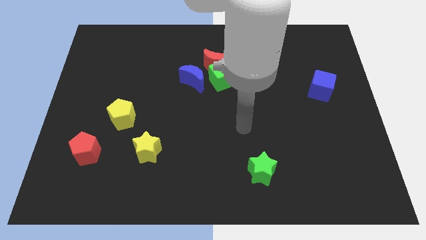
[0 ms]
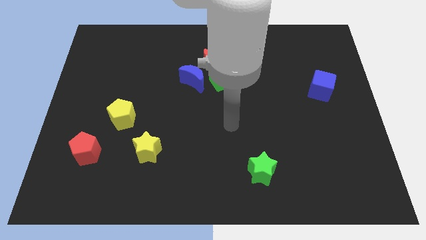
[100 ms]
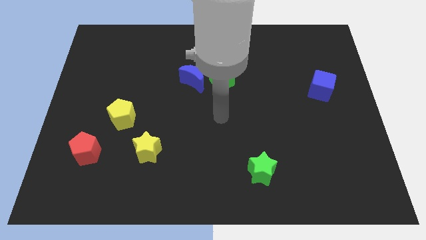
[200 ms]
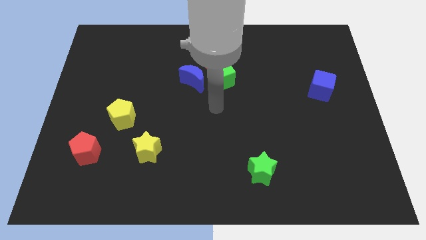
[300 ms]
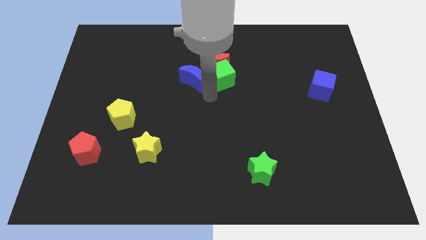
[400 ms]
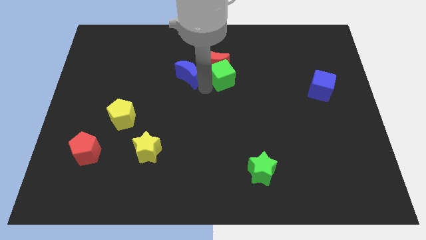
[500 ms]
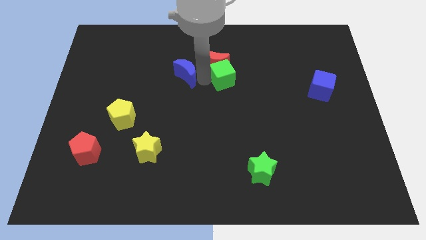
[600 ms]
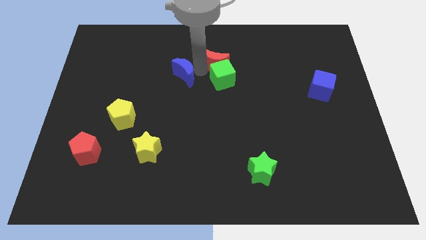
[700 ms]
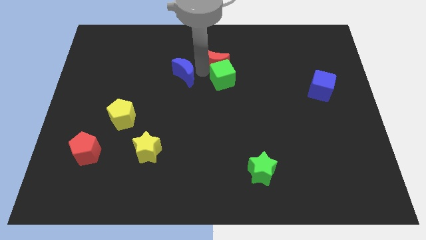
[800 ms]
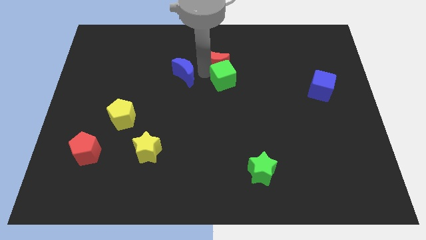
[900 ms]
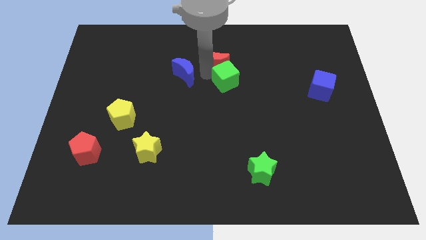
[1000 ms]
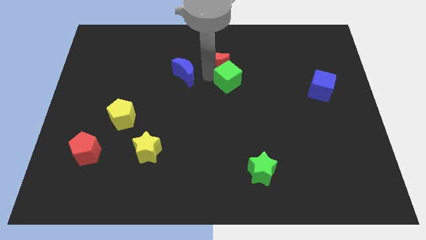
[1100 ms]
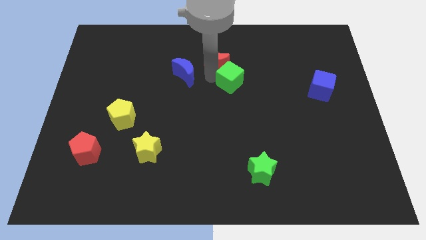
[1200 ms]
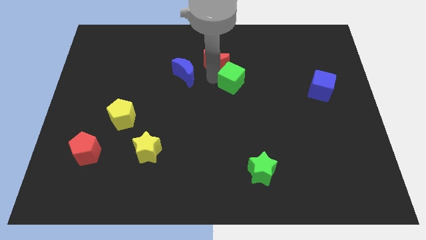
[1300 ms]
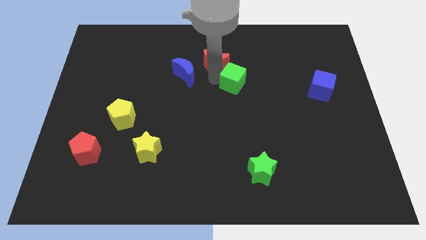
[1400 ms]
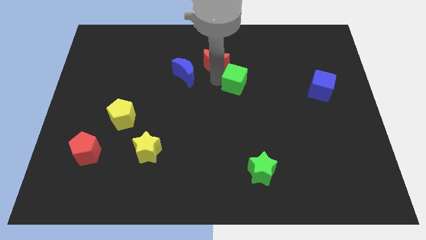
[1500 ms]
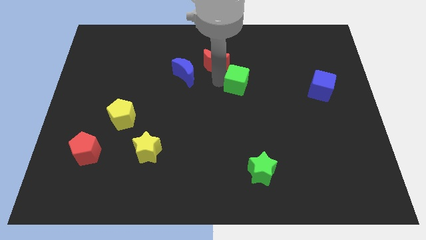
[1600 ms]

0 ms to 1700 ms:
pull the green cube apart from the red moon and blue moon

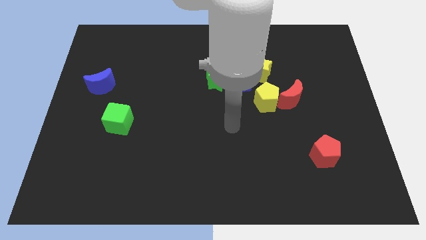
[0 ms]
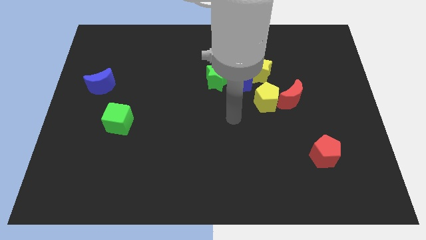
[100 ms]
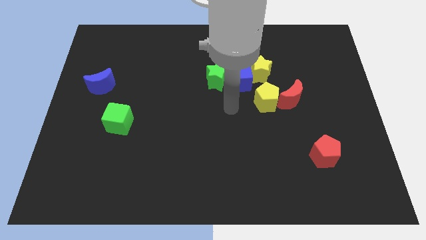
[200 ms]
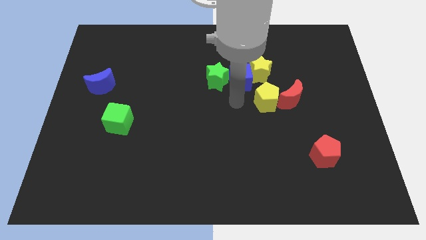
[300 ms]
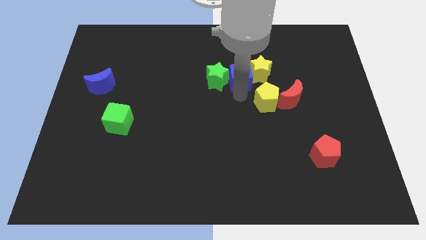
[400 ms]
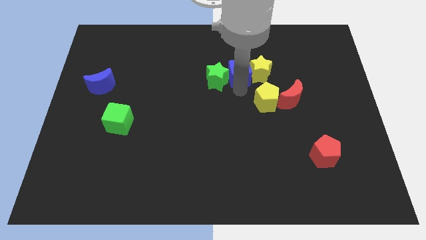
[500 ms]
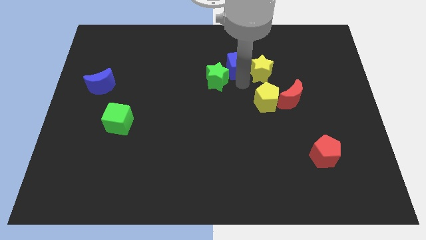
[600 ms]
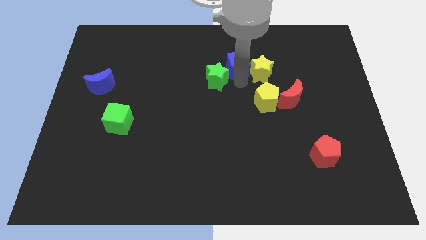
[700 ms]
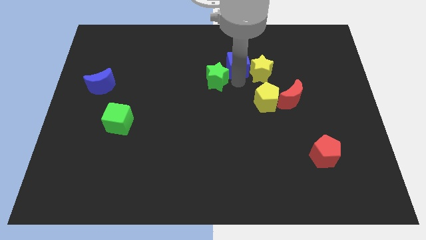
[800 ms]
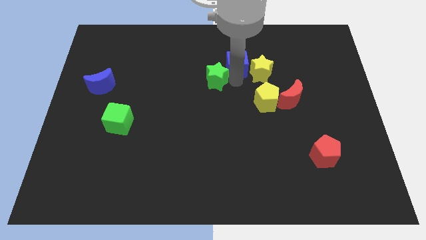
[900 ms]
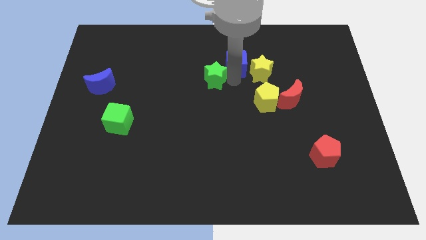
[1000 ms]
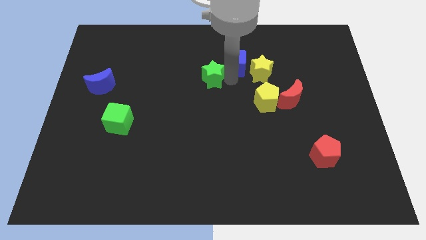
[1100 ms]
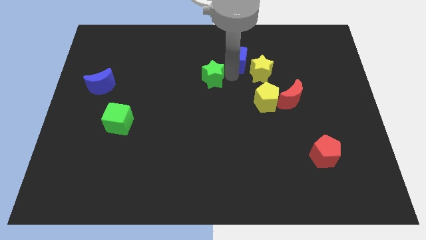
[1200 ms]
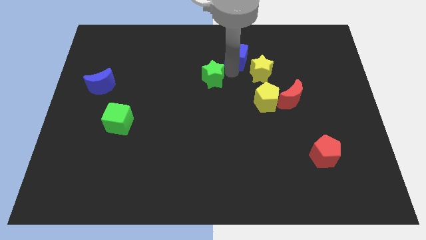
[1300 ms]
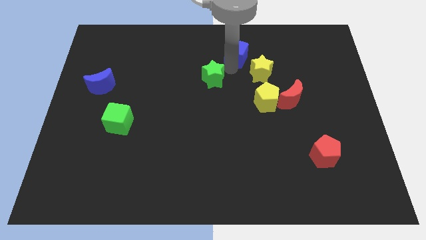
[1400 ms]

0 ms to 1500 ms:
separate the green star from the blue cube

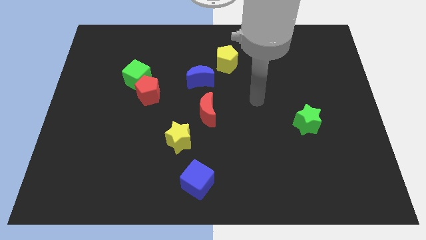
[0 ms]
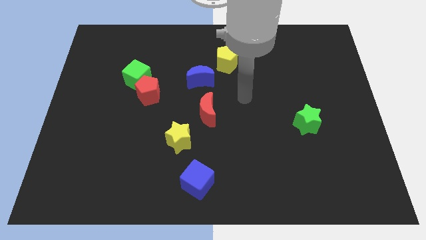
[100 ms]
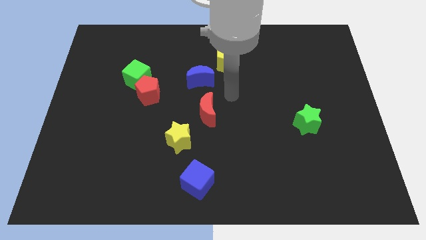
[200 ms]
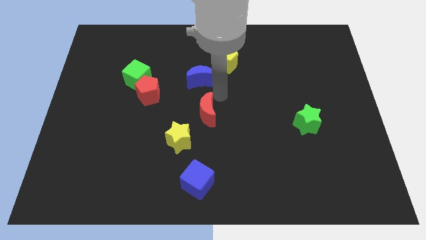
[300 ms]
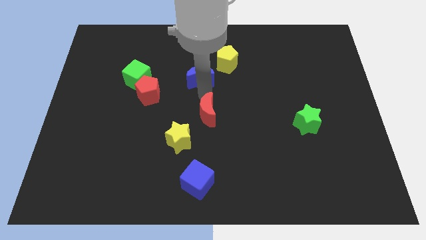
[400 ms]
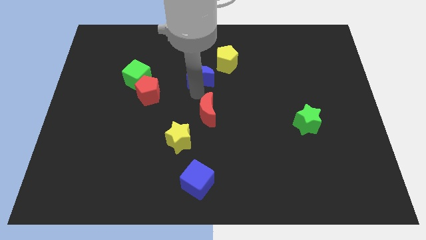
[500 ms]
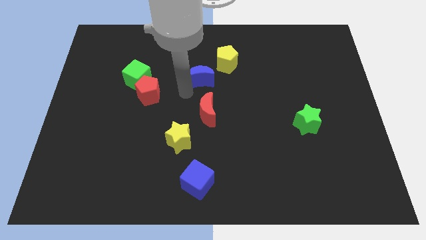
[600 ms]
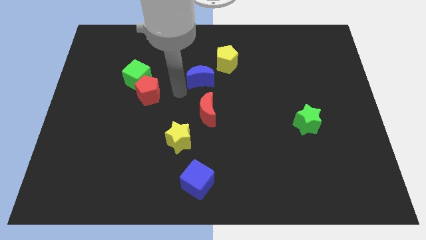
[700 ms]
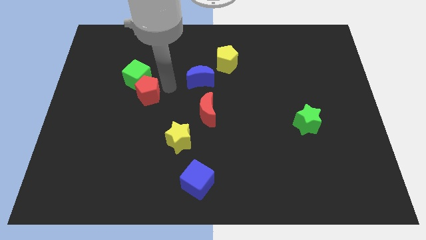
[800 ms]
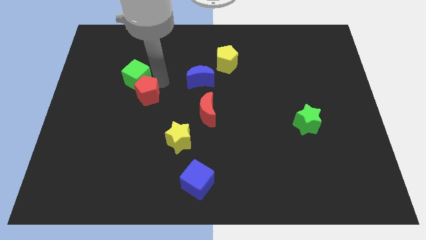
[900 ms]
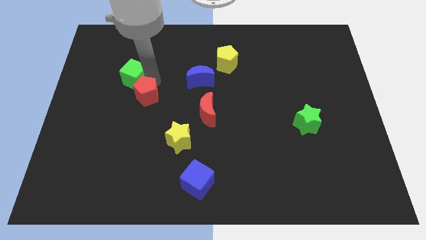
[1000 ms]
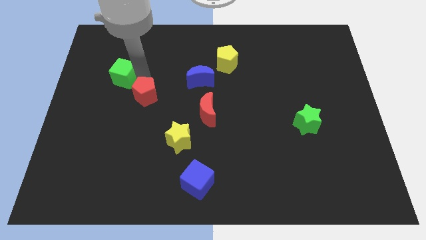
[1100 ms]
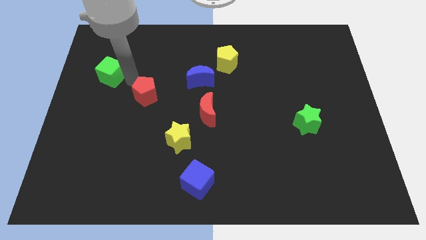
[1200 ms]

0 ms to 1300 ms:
pull the red pentagon apart from the green cube

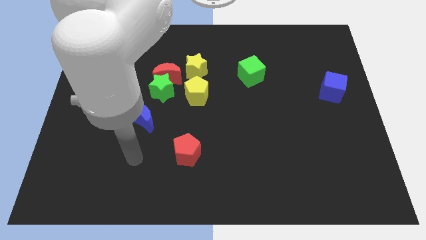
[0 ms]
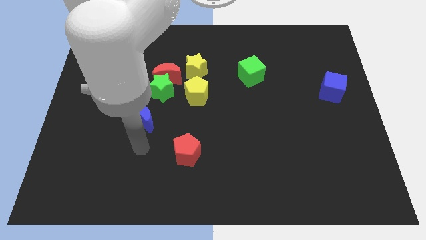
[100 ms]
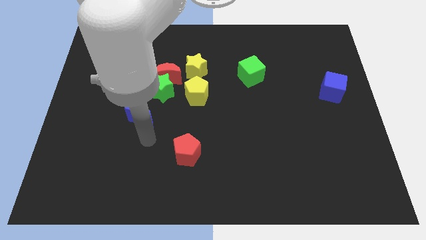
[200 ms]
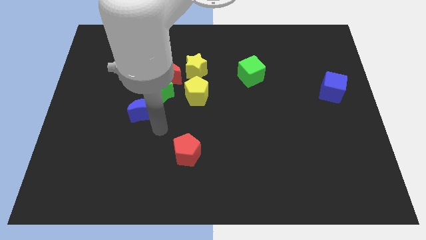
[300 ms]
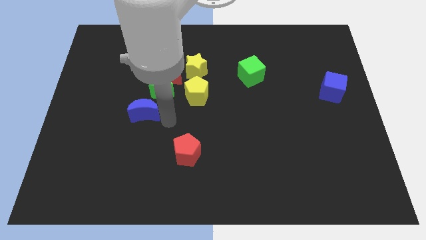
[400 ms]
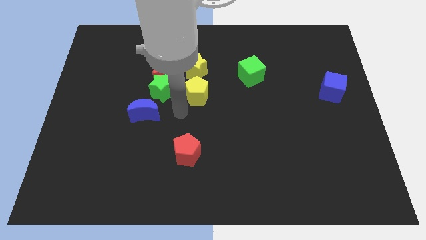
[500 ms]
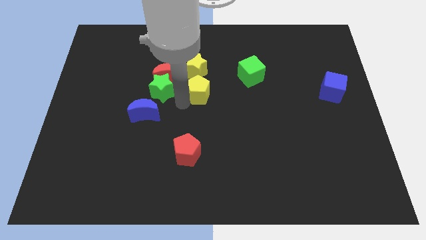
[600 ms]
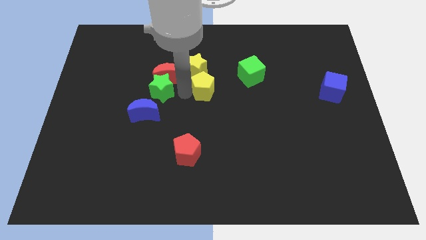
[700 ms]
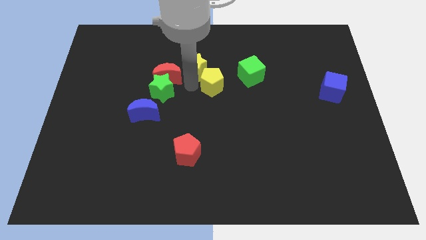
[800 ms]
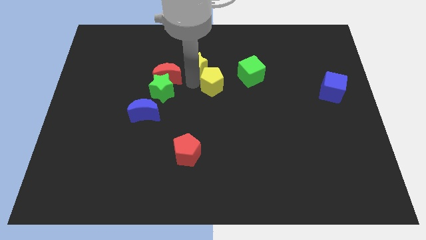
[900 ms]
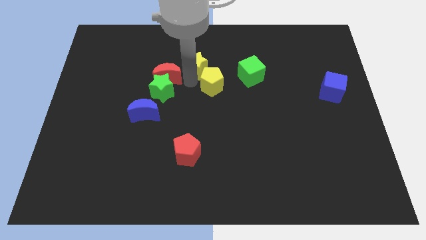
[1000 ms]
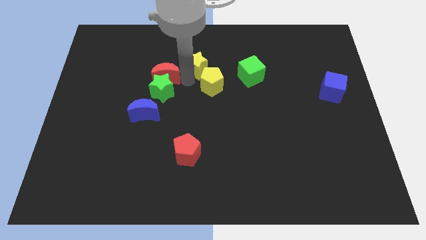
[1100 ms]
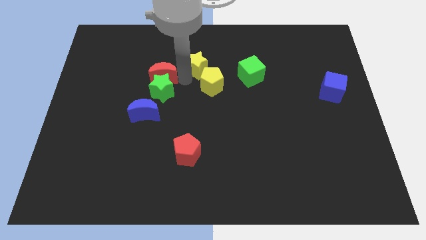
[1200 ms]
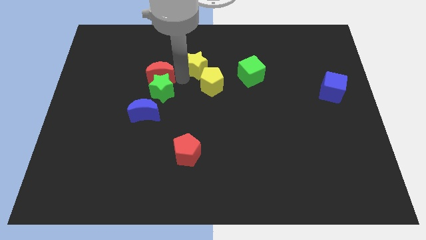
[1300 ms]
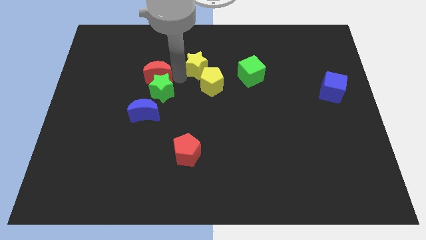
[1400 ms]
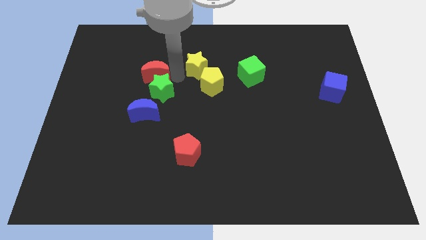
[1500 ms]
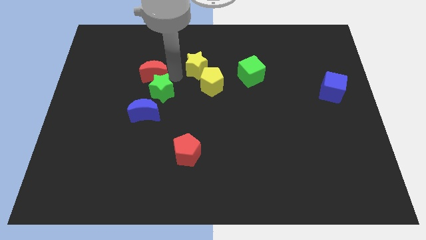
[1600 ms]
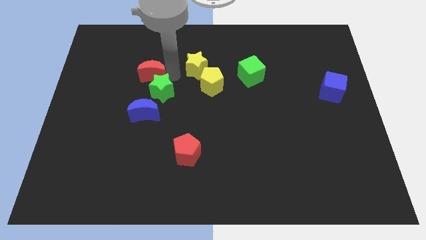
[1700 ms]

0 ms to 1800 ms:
separate the red moon from the green star, yellow star, and yellow pentagon

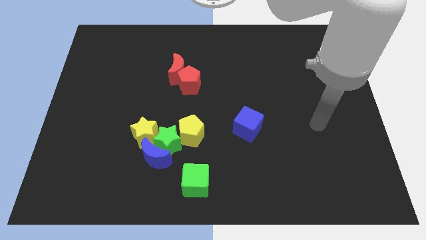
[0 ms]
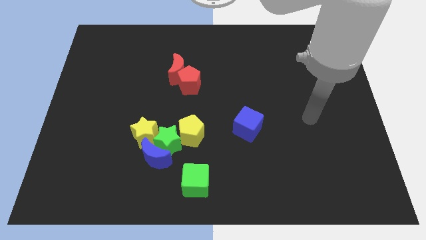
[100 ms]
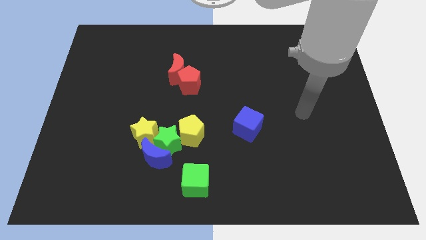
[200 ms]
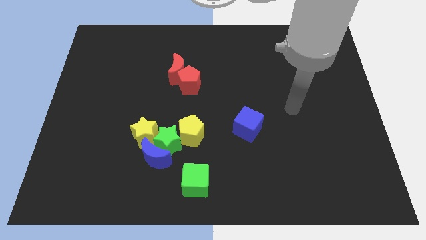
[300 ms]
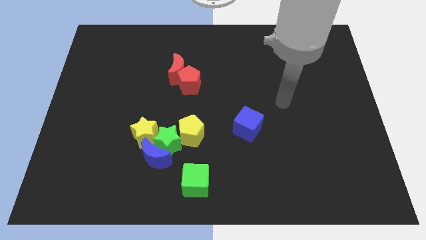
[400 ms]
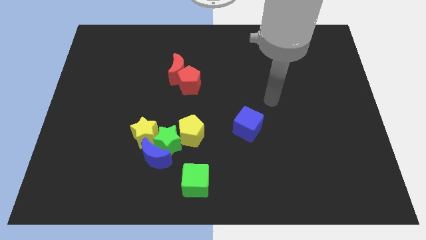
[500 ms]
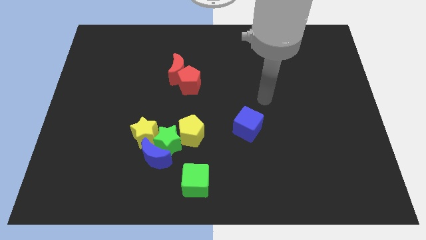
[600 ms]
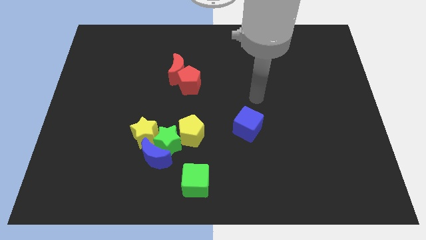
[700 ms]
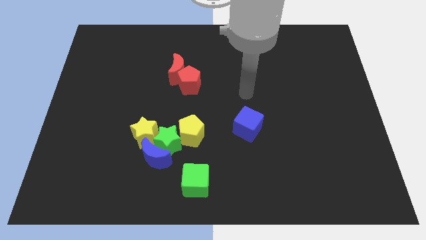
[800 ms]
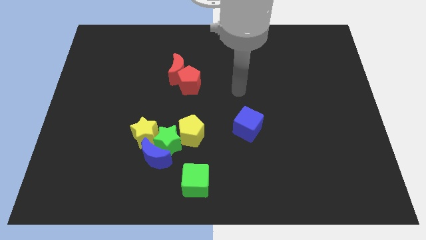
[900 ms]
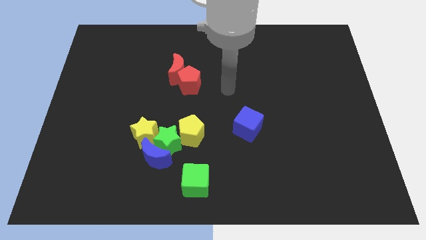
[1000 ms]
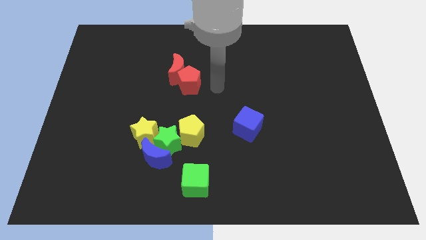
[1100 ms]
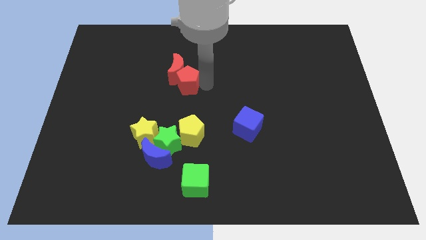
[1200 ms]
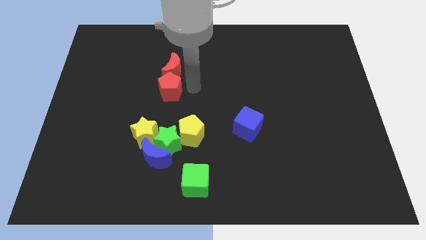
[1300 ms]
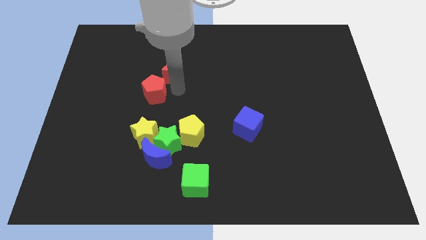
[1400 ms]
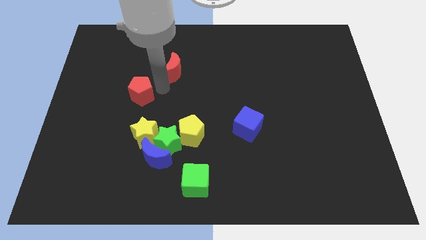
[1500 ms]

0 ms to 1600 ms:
pull the red moon apart from the red pentagon

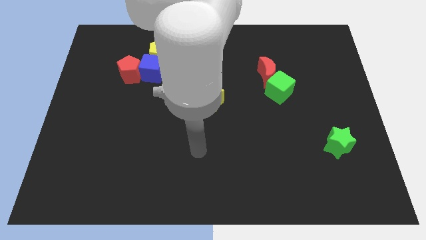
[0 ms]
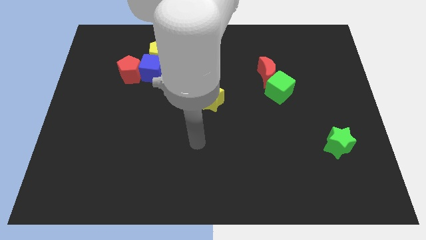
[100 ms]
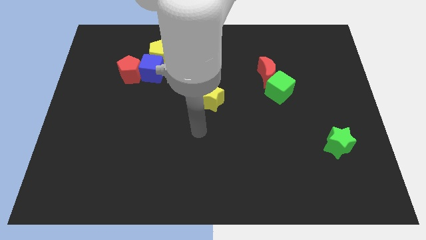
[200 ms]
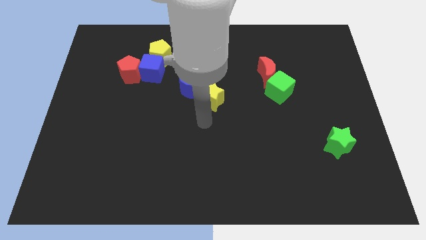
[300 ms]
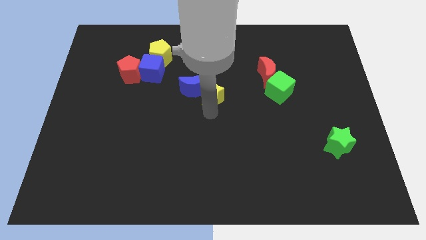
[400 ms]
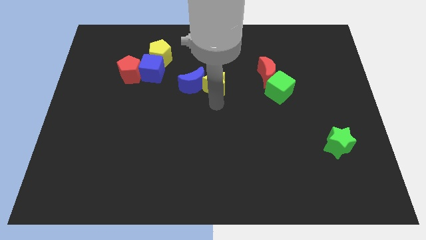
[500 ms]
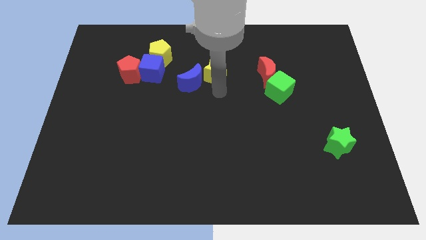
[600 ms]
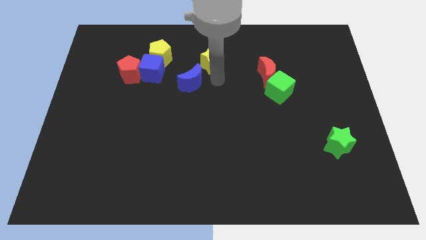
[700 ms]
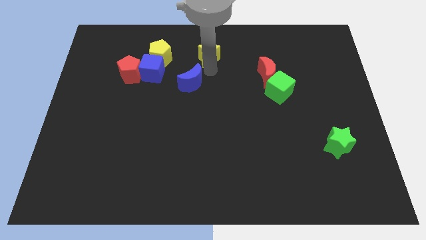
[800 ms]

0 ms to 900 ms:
separate the blue moon from the yellow star

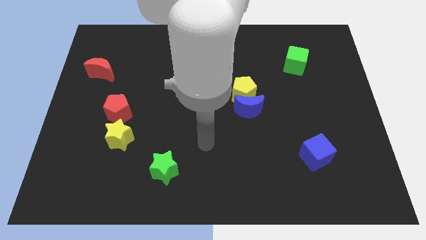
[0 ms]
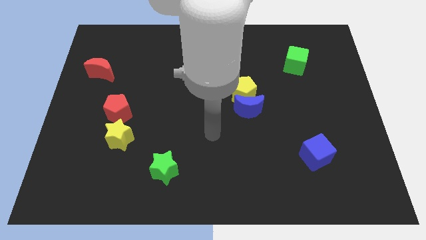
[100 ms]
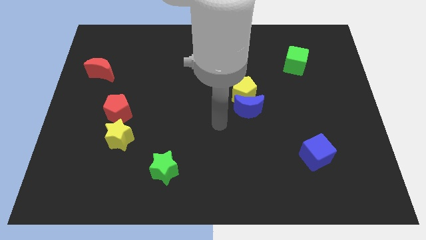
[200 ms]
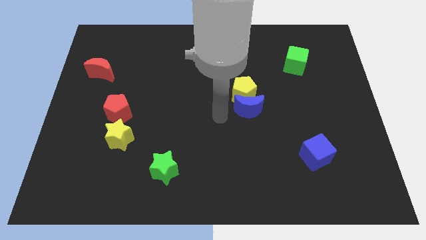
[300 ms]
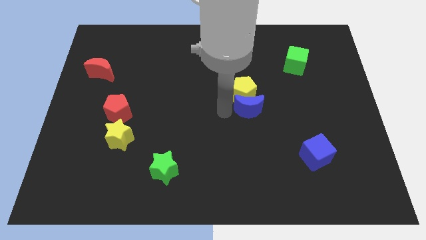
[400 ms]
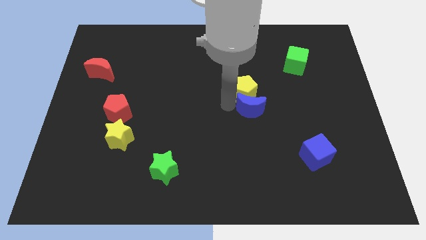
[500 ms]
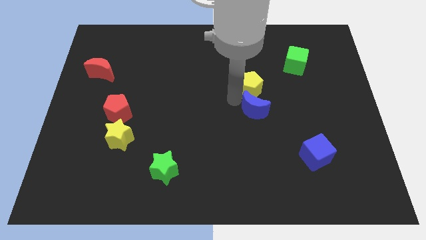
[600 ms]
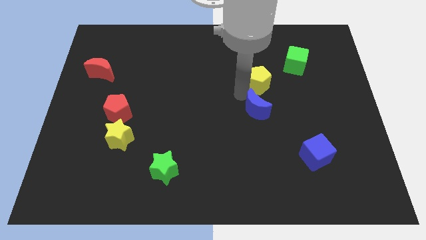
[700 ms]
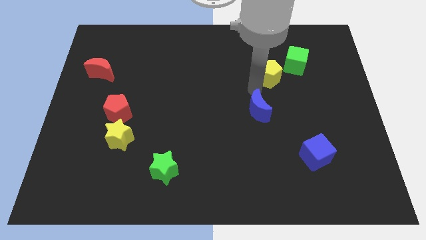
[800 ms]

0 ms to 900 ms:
separate the blue moon from the yellow pentagon
